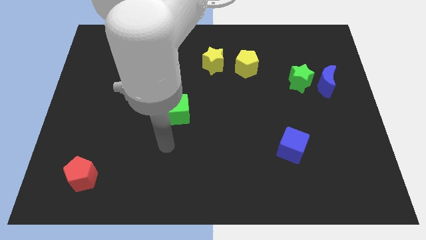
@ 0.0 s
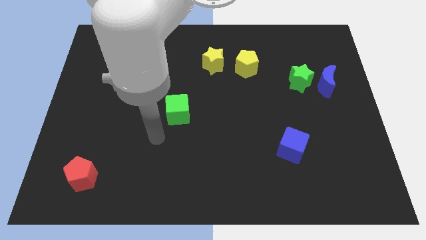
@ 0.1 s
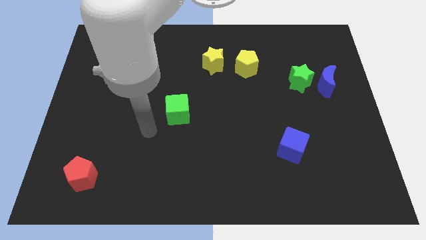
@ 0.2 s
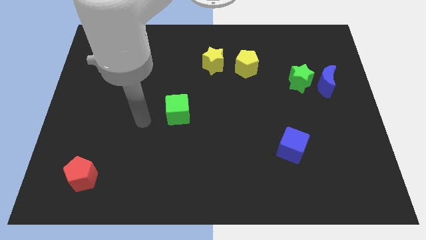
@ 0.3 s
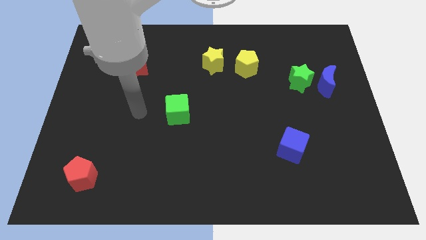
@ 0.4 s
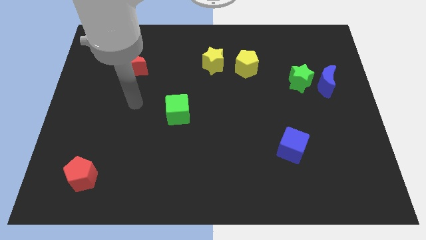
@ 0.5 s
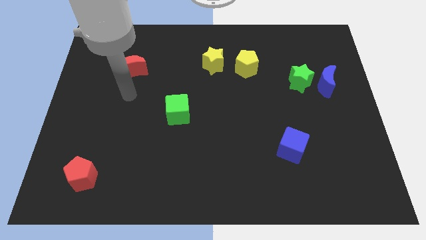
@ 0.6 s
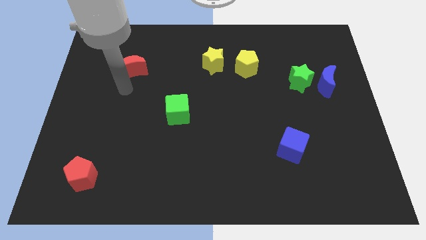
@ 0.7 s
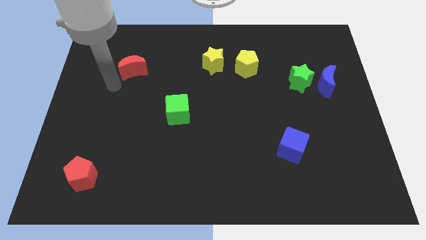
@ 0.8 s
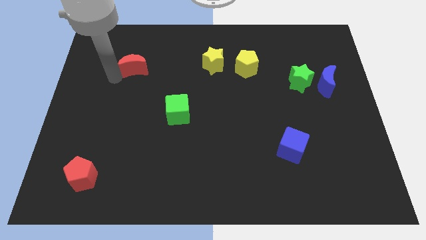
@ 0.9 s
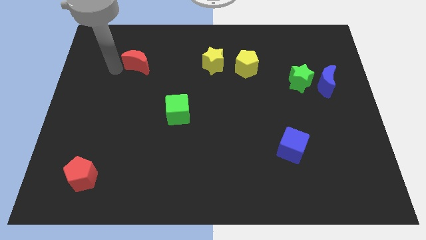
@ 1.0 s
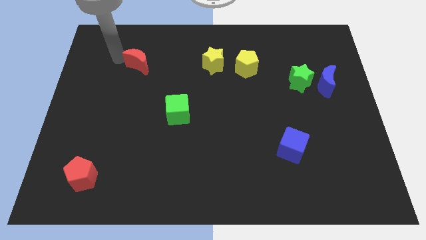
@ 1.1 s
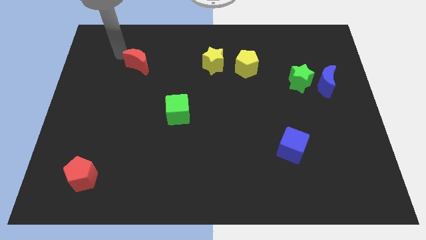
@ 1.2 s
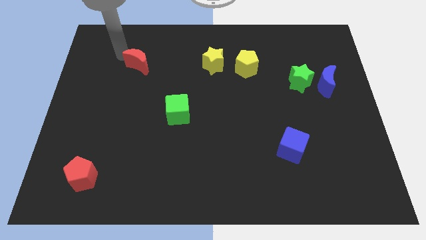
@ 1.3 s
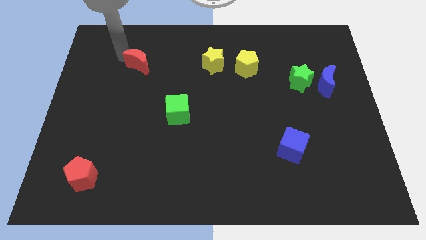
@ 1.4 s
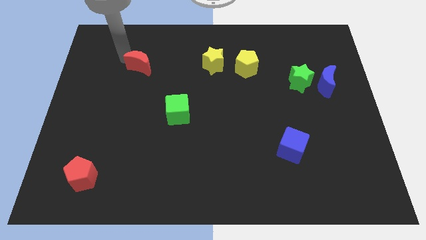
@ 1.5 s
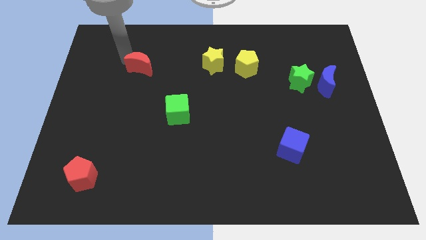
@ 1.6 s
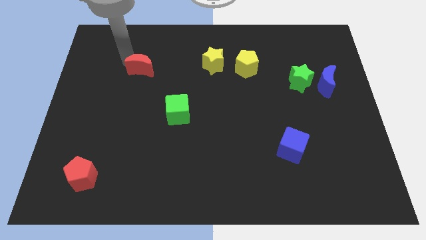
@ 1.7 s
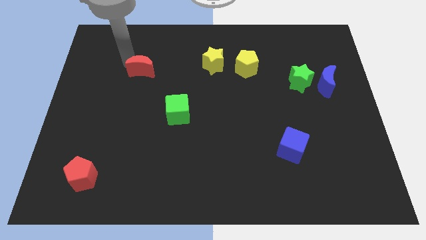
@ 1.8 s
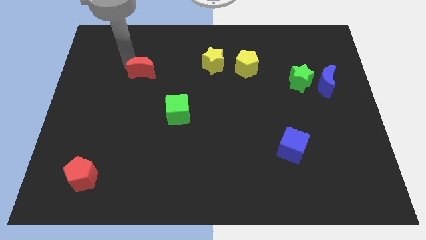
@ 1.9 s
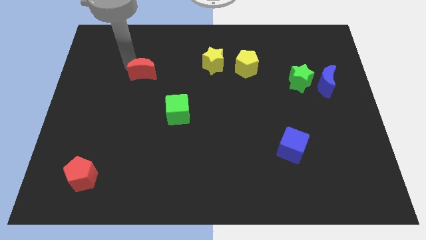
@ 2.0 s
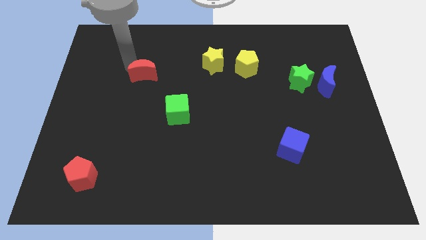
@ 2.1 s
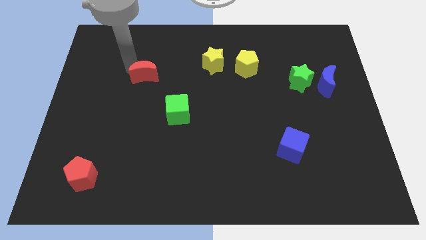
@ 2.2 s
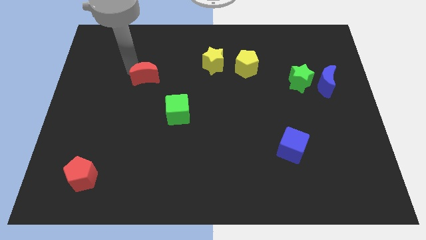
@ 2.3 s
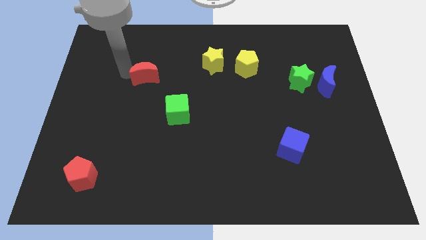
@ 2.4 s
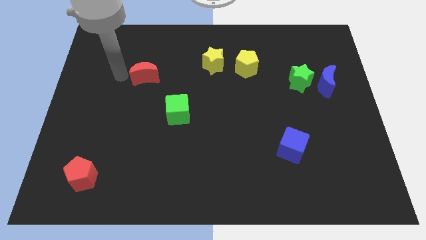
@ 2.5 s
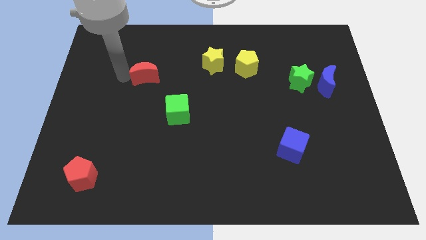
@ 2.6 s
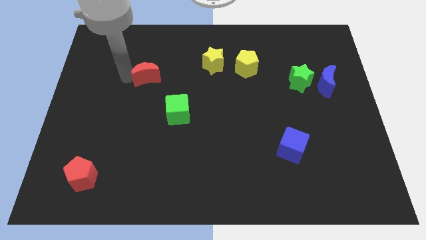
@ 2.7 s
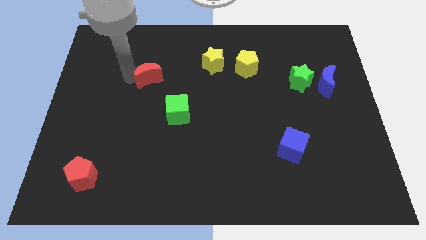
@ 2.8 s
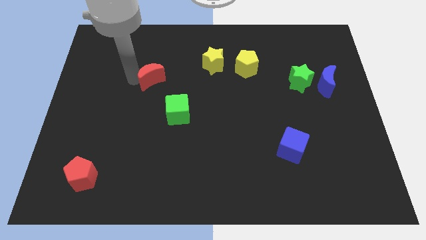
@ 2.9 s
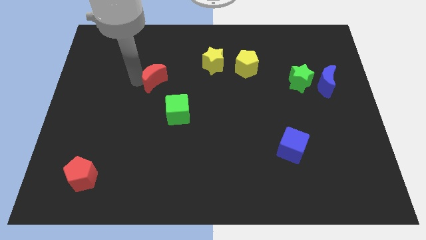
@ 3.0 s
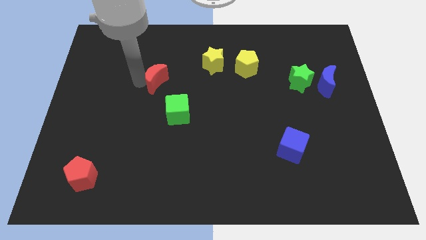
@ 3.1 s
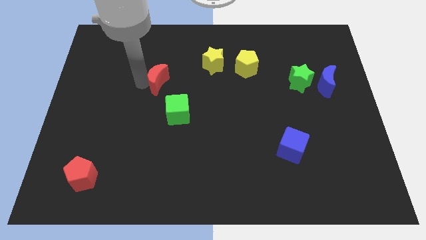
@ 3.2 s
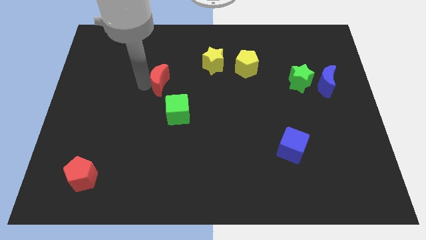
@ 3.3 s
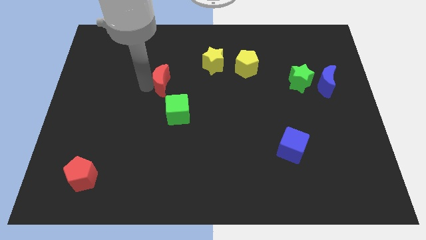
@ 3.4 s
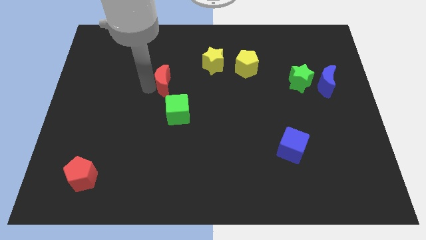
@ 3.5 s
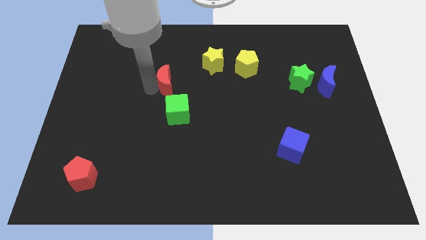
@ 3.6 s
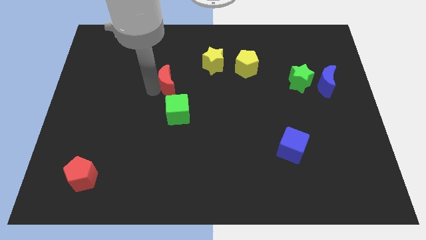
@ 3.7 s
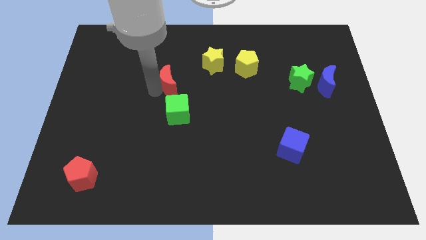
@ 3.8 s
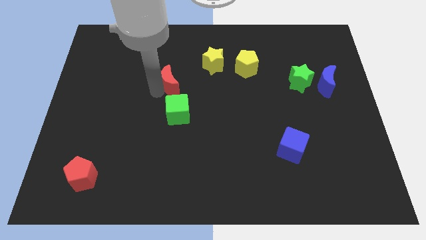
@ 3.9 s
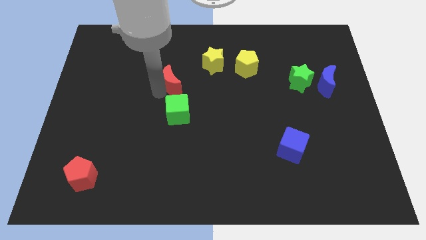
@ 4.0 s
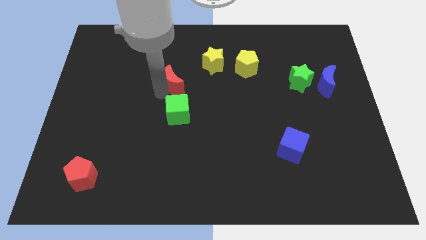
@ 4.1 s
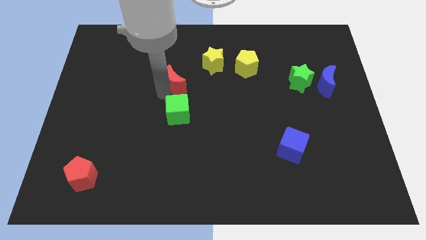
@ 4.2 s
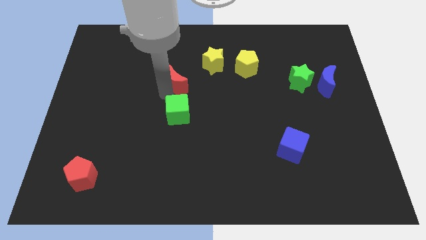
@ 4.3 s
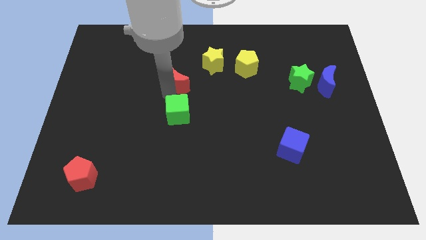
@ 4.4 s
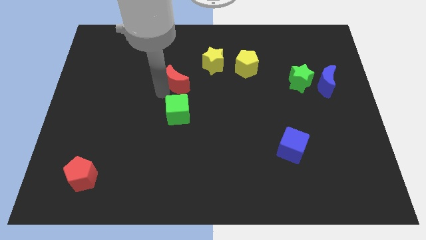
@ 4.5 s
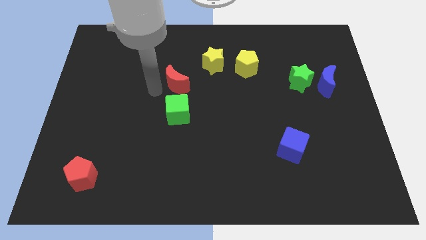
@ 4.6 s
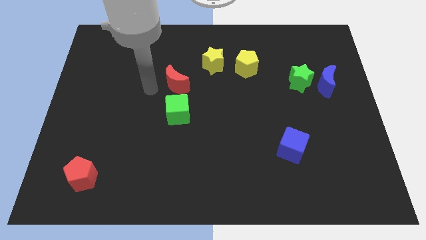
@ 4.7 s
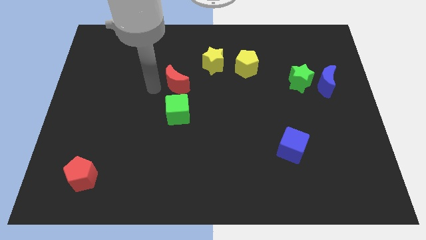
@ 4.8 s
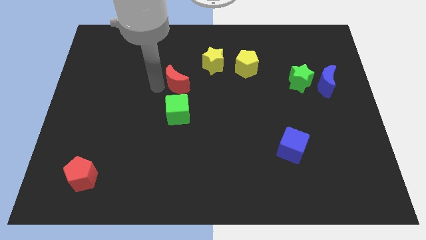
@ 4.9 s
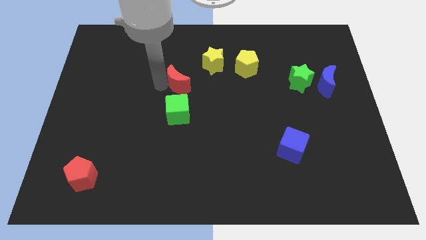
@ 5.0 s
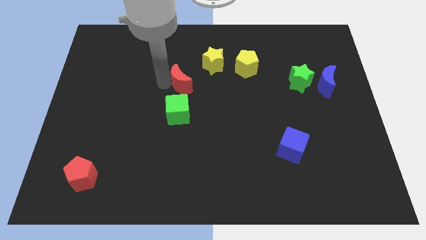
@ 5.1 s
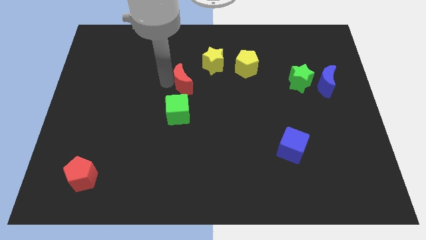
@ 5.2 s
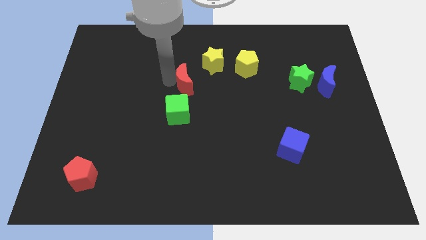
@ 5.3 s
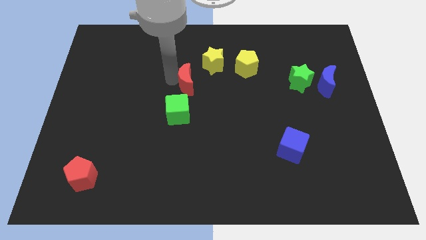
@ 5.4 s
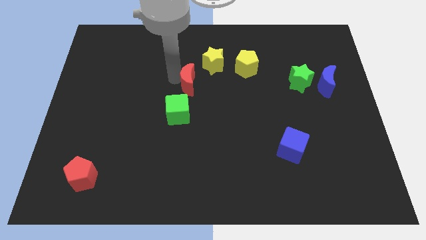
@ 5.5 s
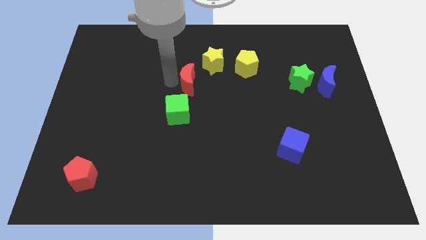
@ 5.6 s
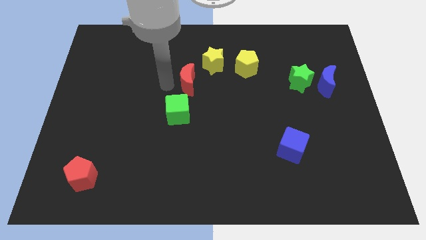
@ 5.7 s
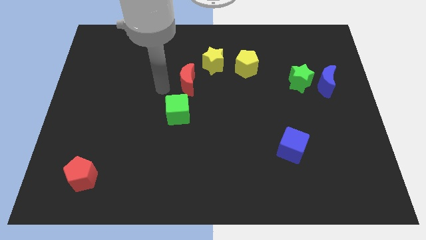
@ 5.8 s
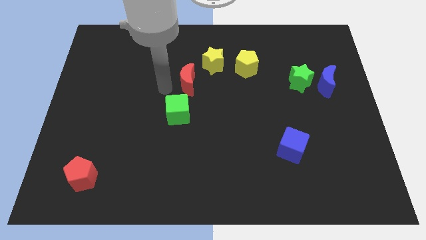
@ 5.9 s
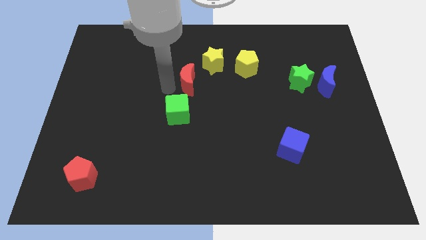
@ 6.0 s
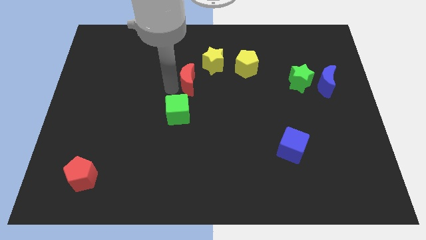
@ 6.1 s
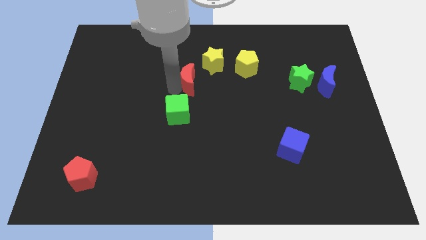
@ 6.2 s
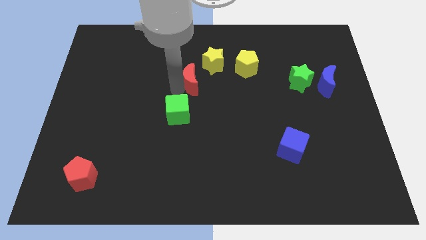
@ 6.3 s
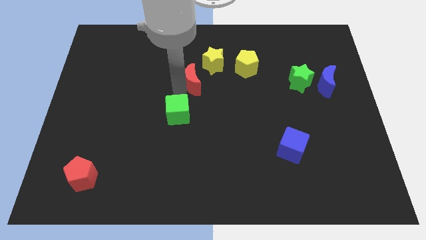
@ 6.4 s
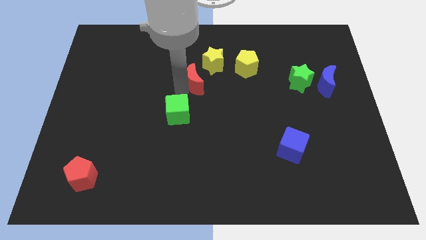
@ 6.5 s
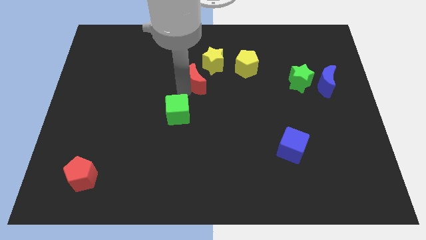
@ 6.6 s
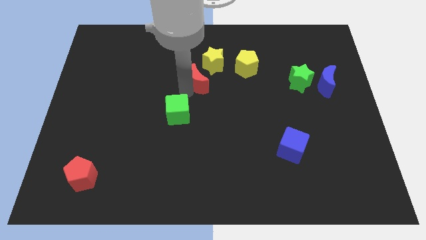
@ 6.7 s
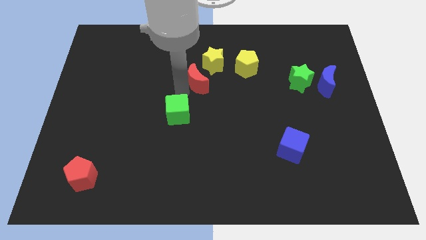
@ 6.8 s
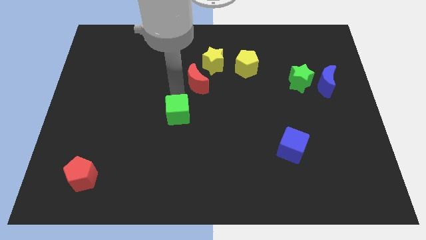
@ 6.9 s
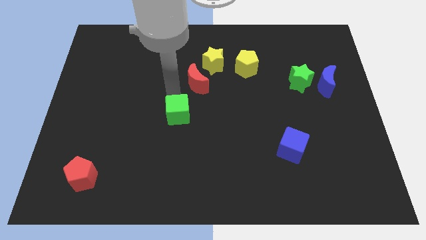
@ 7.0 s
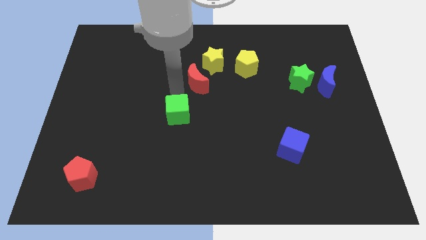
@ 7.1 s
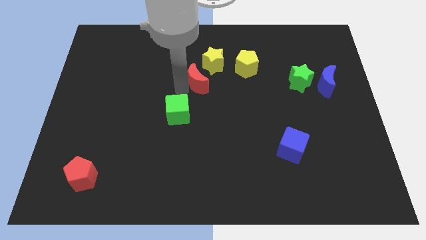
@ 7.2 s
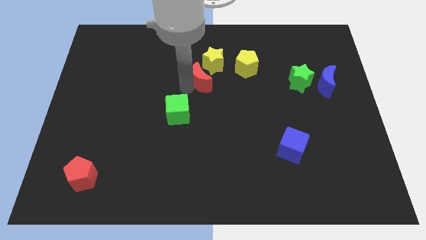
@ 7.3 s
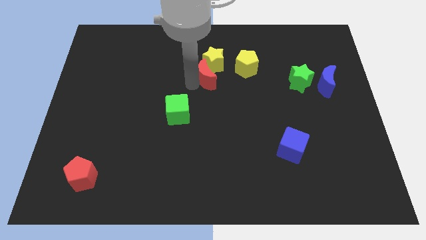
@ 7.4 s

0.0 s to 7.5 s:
push the red moon diagonally down and to the left of the yellow pentagon
